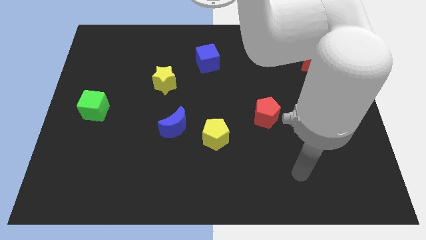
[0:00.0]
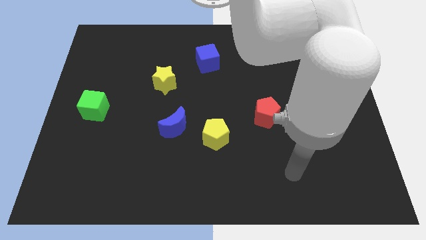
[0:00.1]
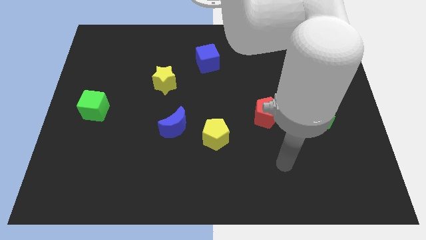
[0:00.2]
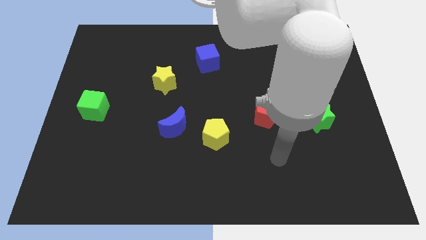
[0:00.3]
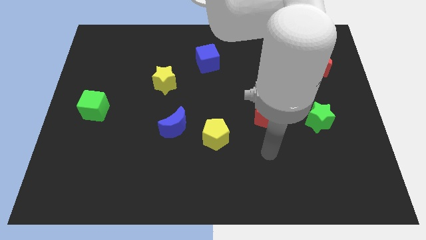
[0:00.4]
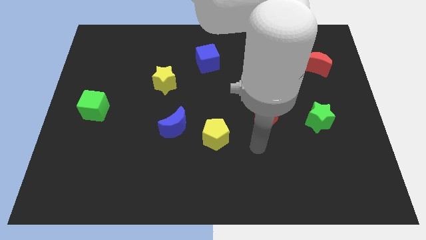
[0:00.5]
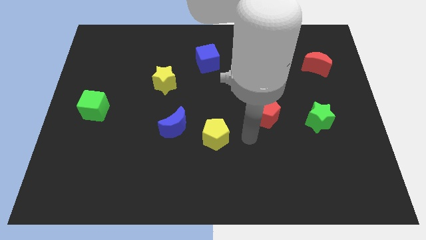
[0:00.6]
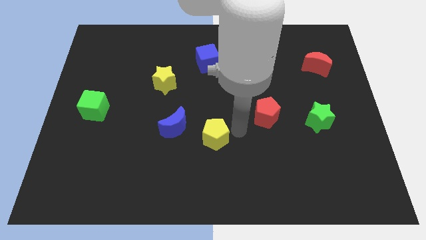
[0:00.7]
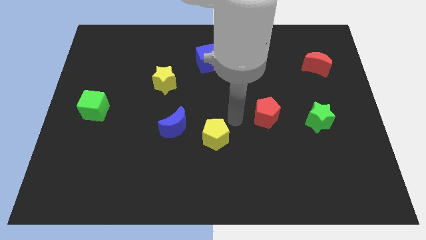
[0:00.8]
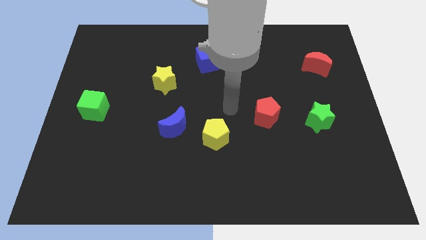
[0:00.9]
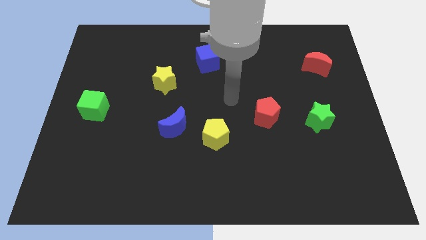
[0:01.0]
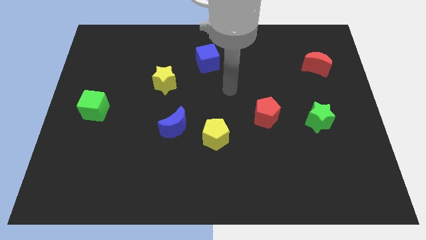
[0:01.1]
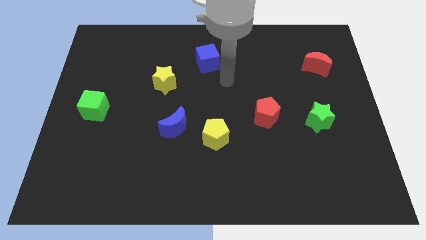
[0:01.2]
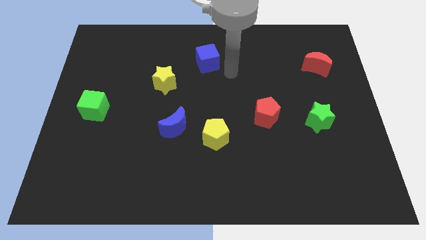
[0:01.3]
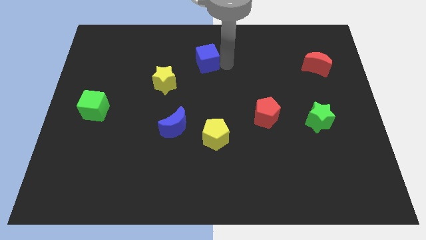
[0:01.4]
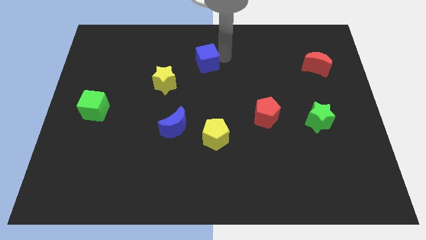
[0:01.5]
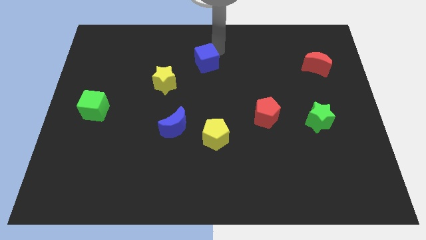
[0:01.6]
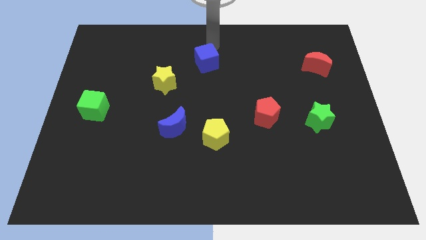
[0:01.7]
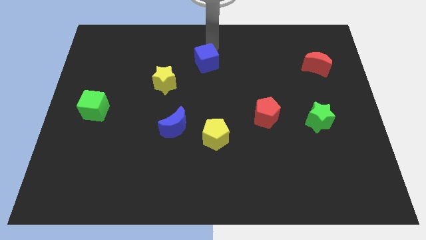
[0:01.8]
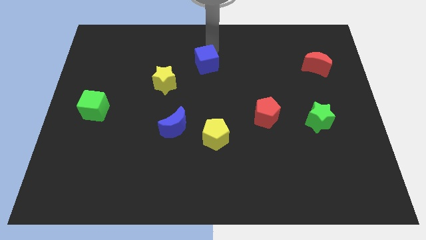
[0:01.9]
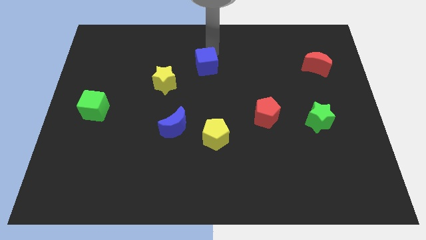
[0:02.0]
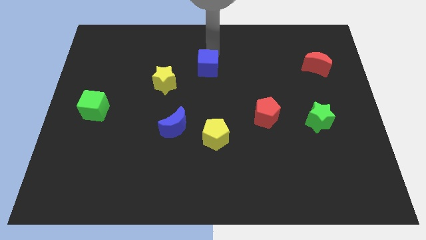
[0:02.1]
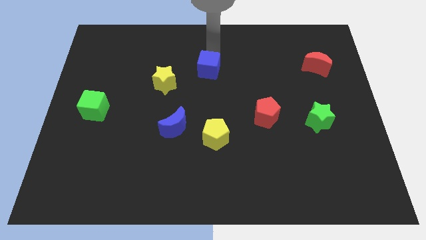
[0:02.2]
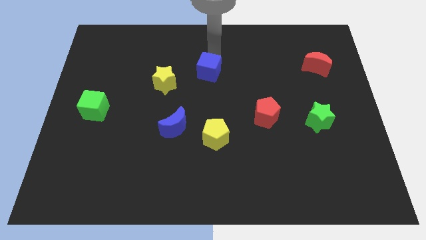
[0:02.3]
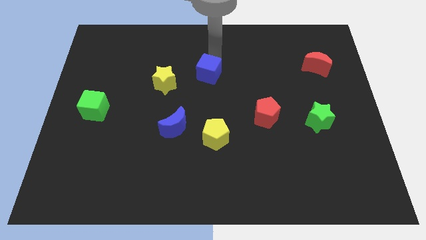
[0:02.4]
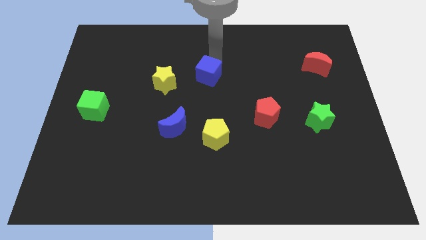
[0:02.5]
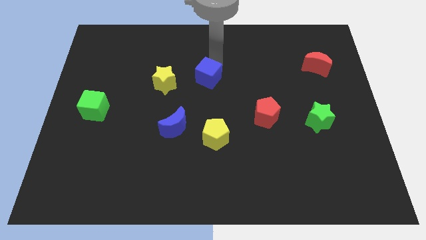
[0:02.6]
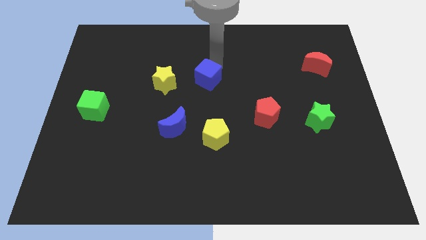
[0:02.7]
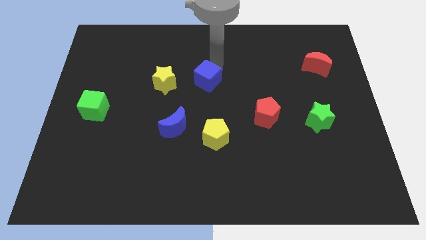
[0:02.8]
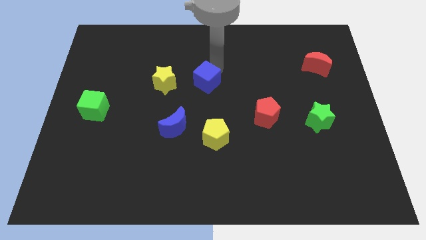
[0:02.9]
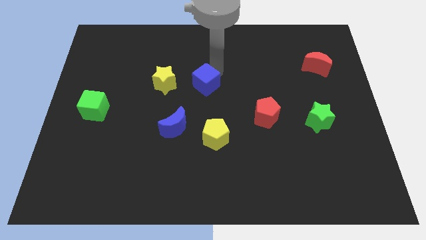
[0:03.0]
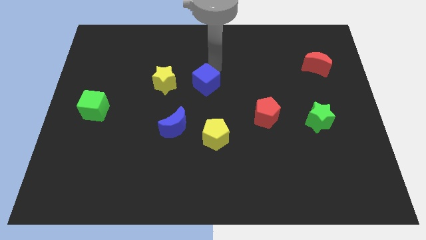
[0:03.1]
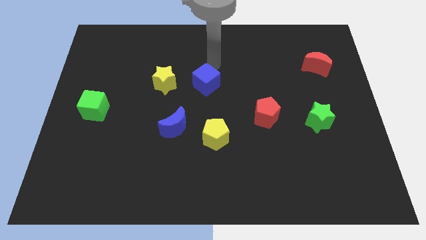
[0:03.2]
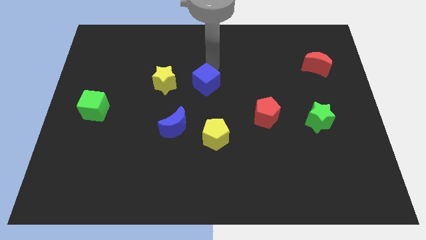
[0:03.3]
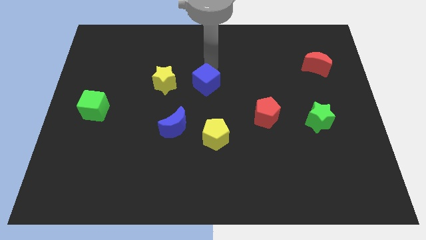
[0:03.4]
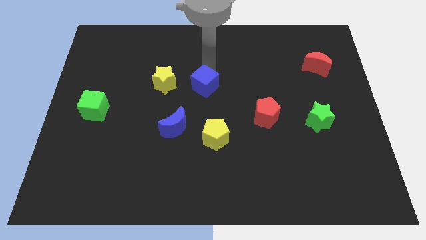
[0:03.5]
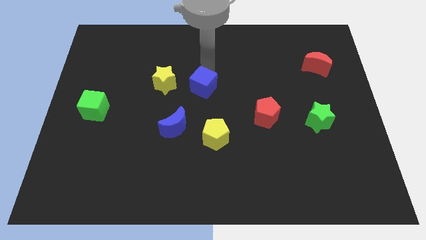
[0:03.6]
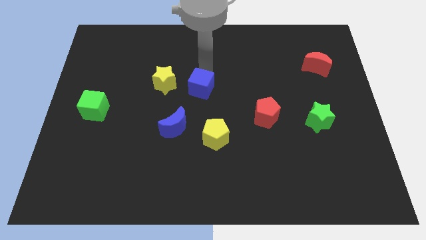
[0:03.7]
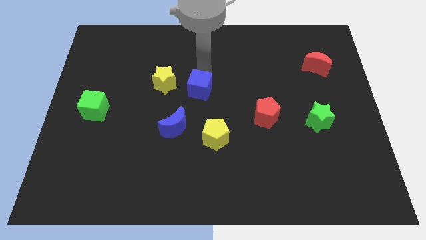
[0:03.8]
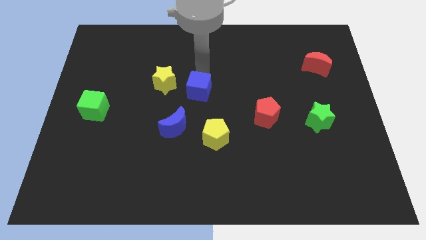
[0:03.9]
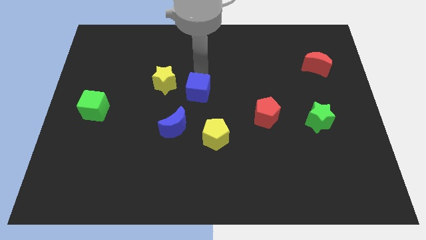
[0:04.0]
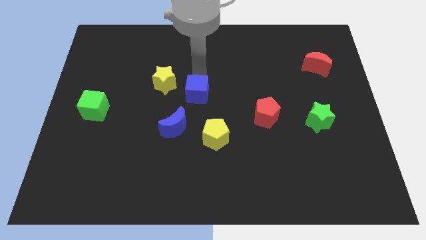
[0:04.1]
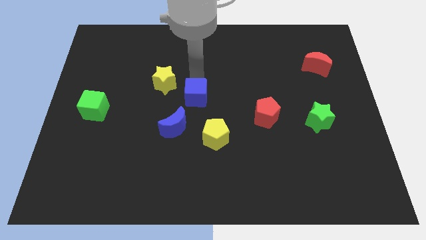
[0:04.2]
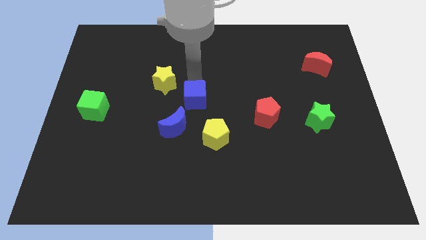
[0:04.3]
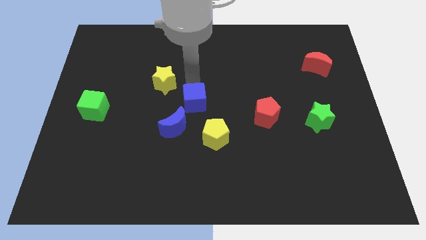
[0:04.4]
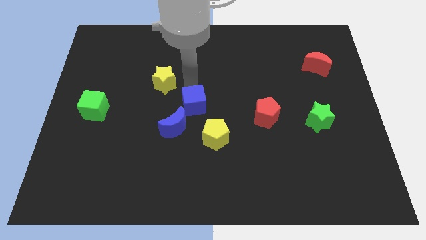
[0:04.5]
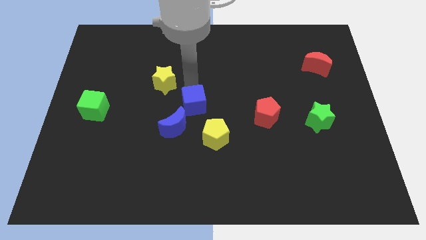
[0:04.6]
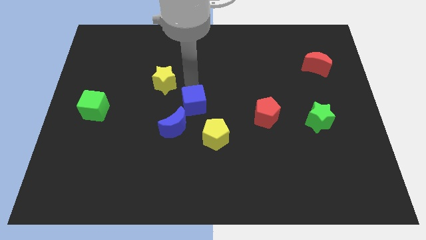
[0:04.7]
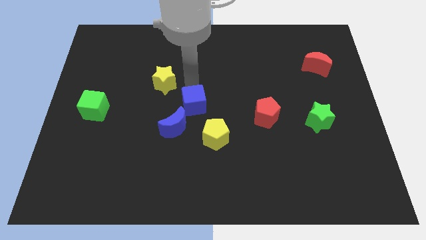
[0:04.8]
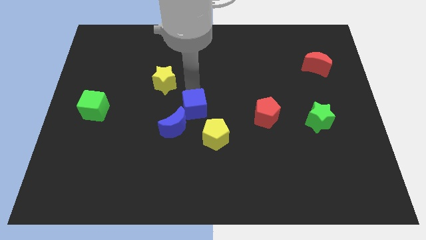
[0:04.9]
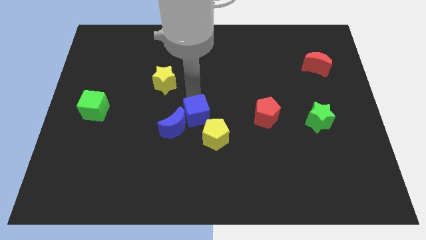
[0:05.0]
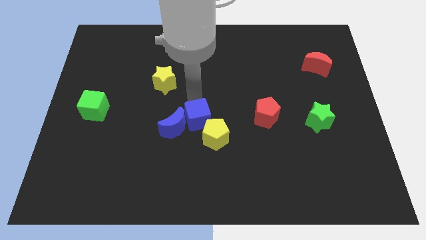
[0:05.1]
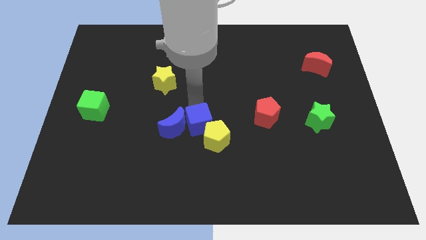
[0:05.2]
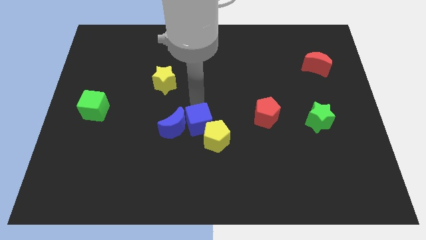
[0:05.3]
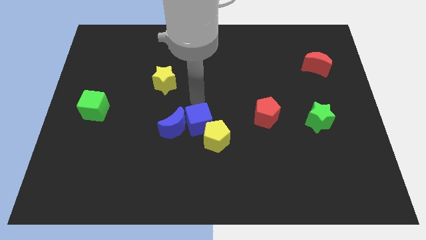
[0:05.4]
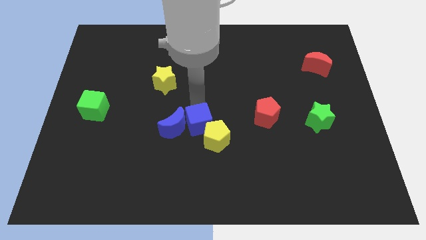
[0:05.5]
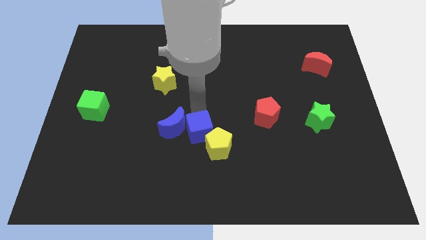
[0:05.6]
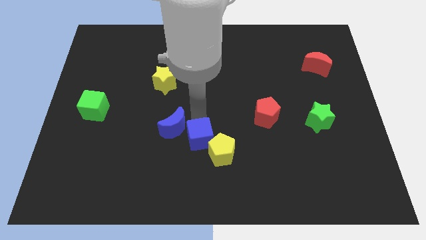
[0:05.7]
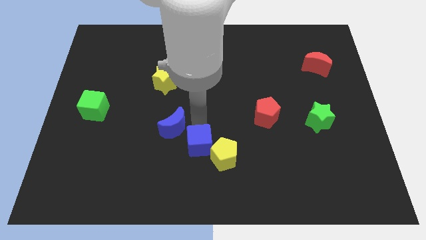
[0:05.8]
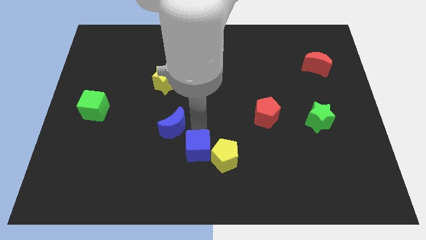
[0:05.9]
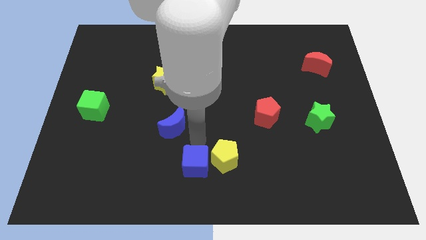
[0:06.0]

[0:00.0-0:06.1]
move the blue cube to the bottom

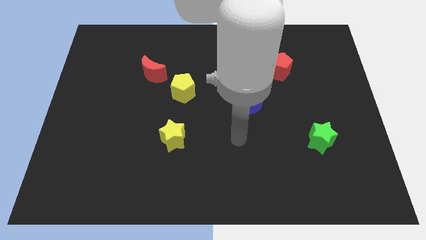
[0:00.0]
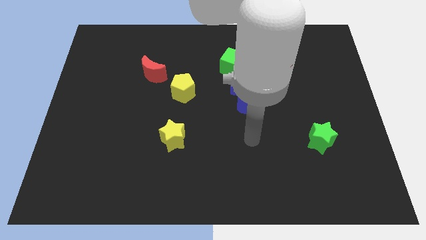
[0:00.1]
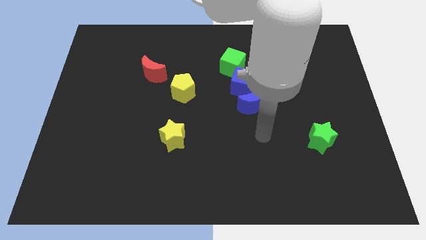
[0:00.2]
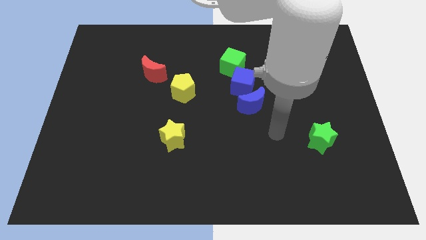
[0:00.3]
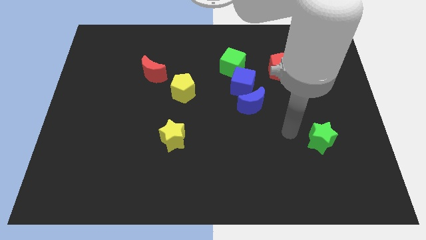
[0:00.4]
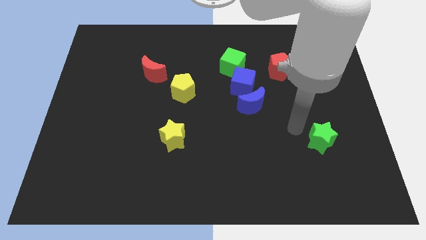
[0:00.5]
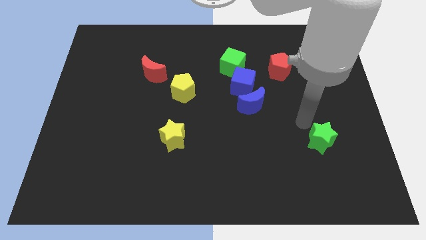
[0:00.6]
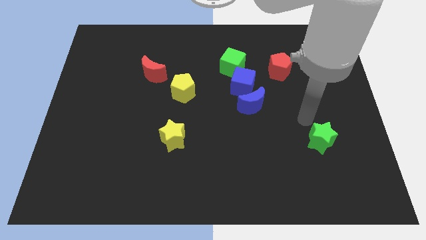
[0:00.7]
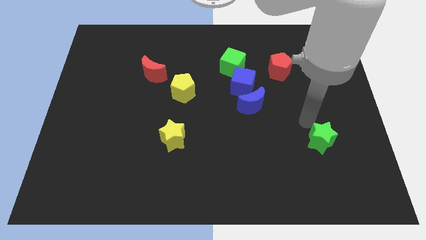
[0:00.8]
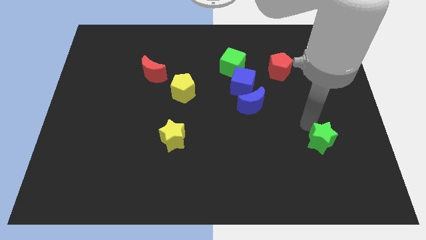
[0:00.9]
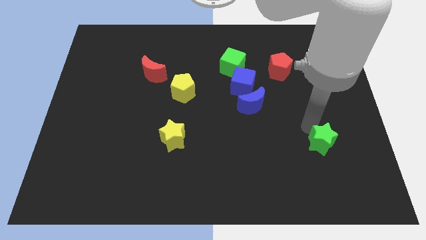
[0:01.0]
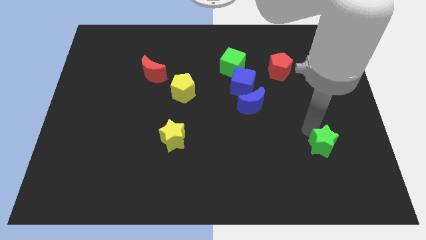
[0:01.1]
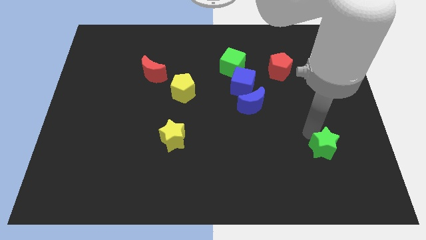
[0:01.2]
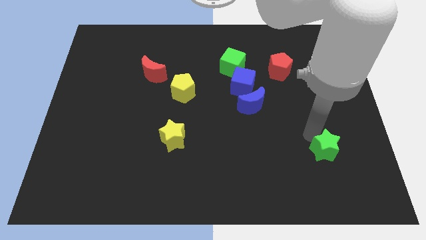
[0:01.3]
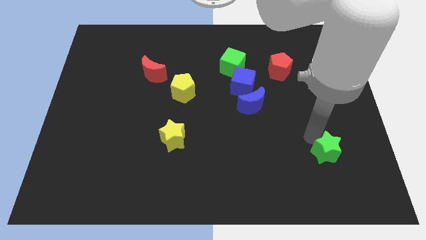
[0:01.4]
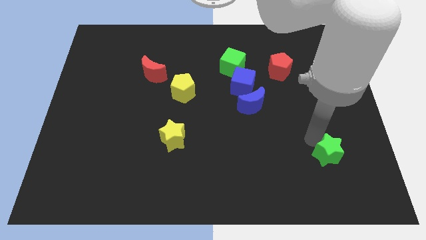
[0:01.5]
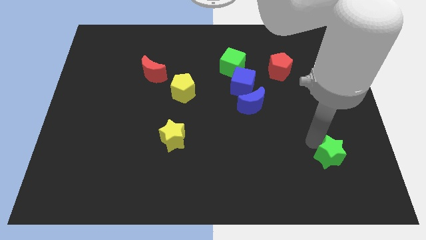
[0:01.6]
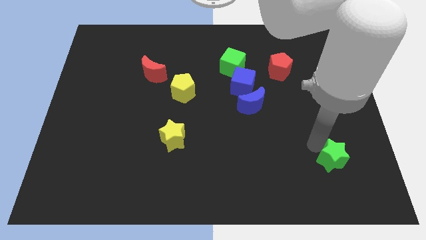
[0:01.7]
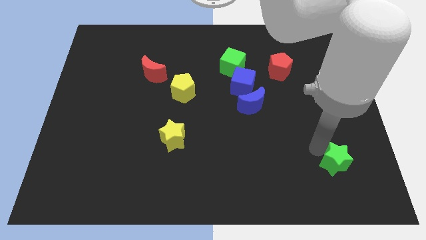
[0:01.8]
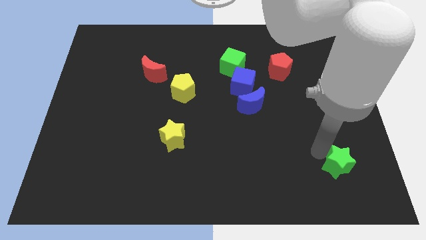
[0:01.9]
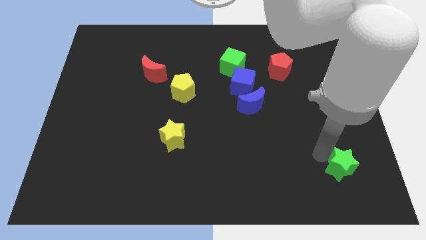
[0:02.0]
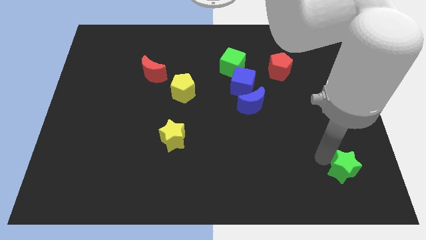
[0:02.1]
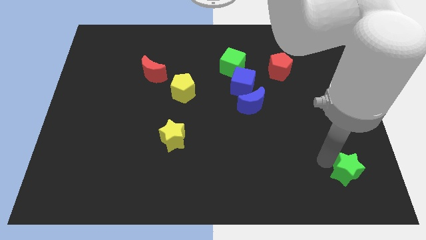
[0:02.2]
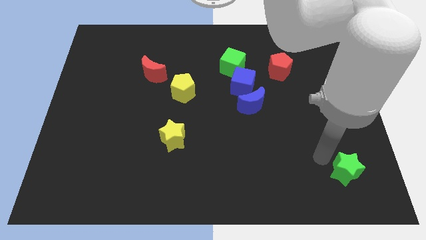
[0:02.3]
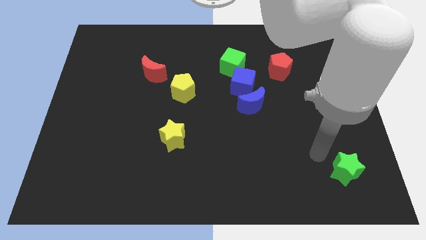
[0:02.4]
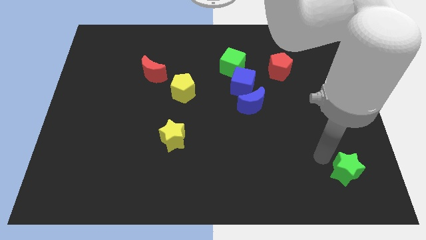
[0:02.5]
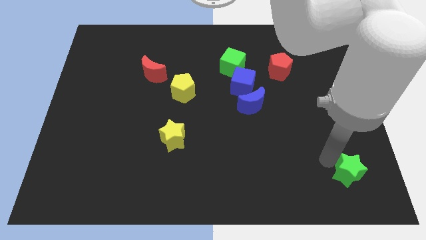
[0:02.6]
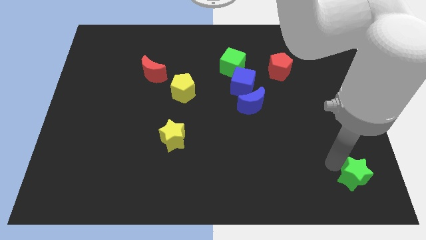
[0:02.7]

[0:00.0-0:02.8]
move the green star to the bottom right corner
